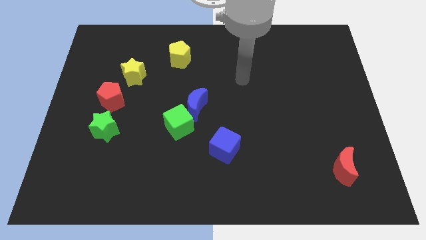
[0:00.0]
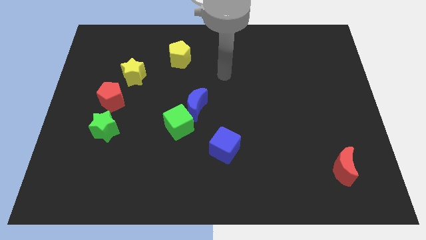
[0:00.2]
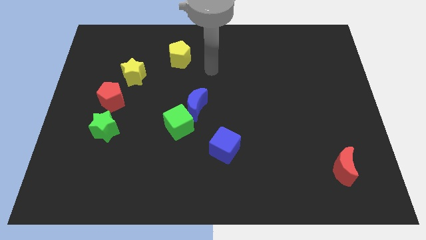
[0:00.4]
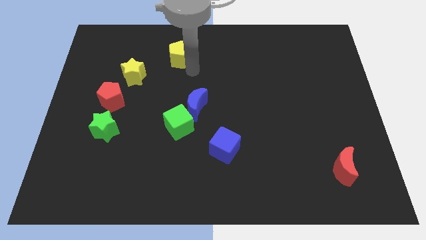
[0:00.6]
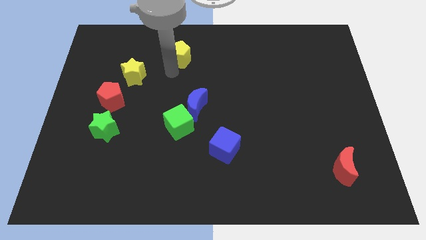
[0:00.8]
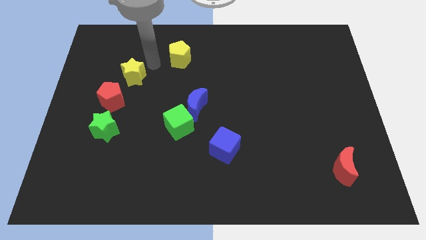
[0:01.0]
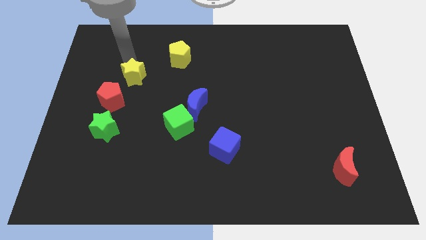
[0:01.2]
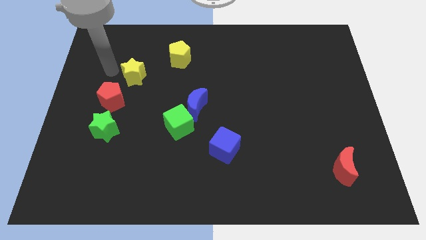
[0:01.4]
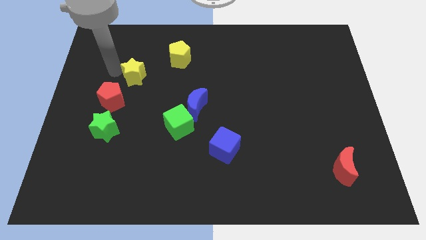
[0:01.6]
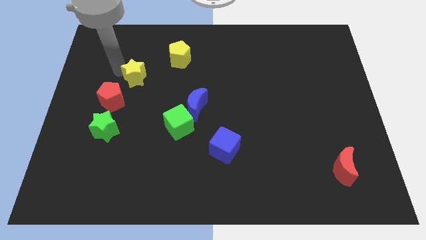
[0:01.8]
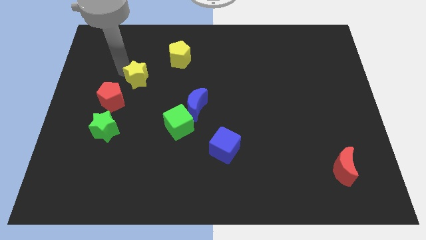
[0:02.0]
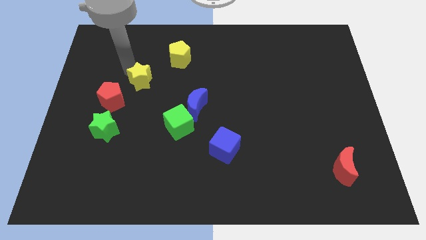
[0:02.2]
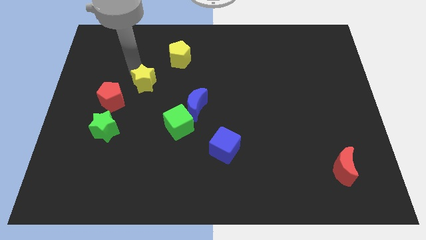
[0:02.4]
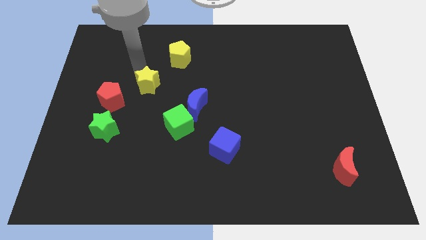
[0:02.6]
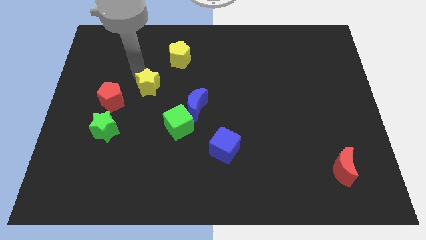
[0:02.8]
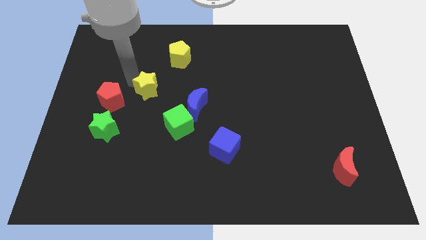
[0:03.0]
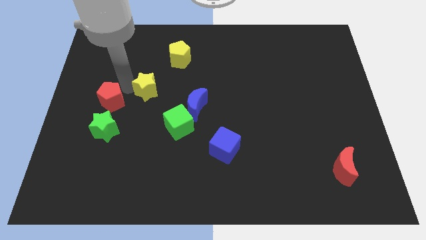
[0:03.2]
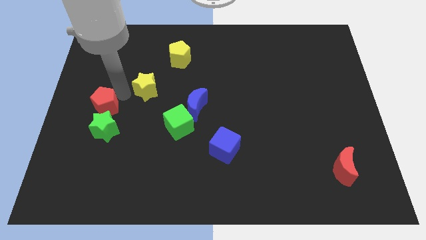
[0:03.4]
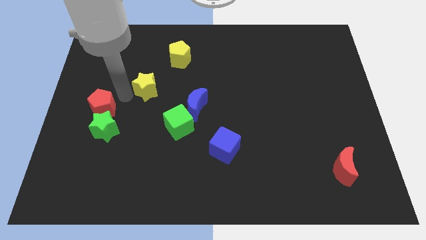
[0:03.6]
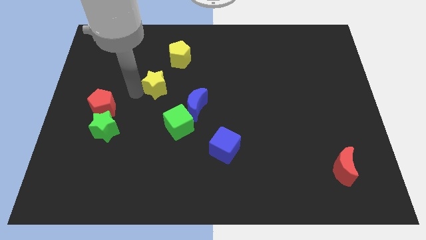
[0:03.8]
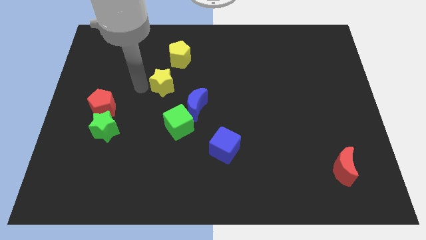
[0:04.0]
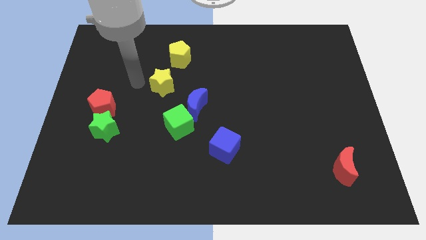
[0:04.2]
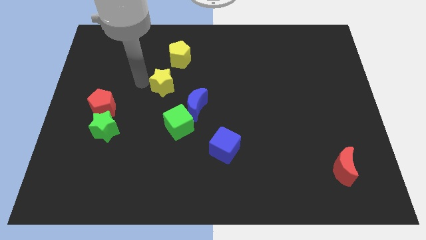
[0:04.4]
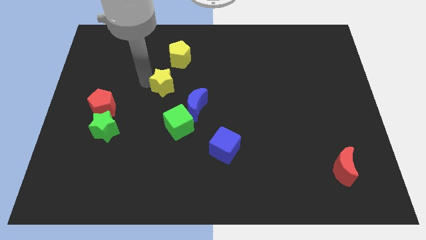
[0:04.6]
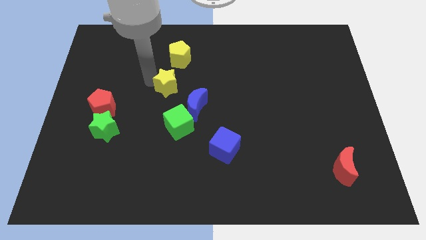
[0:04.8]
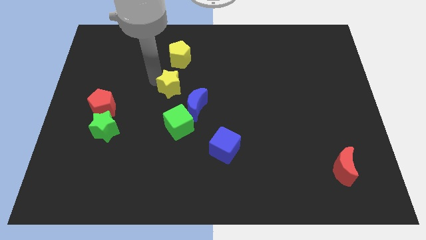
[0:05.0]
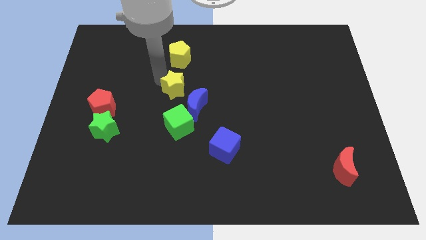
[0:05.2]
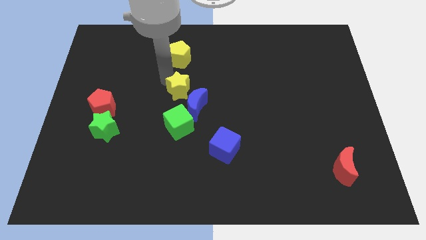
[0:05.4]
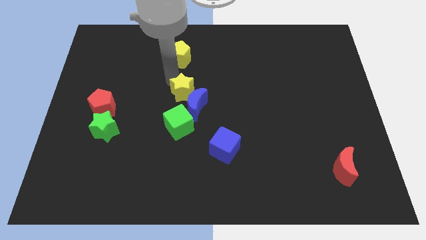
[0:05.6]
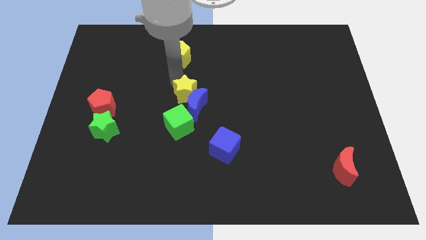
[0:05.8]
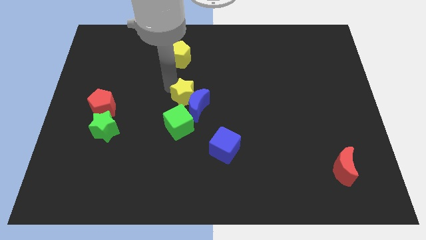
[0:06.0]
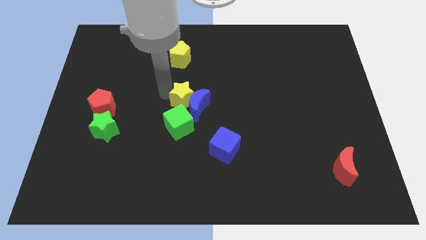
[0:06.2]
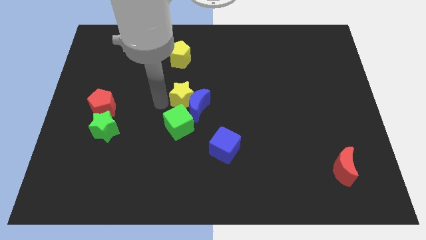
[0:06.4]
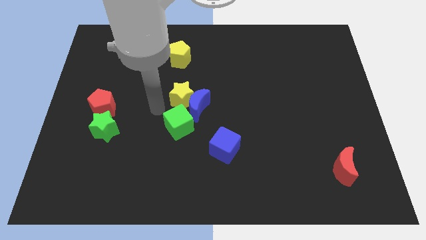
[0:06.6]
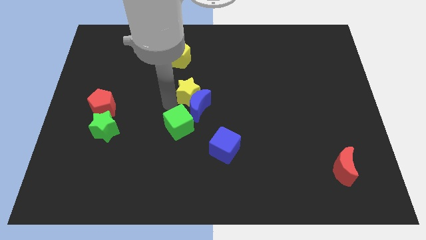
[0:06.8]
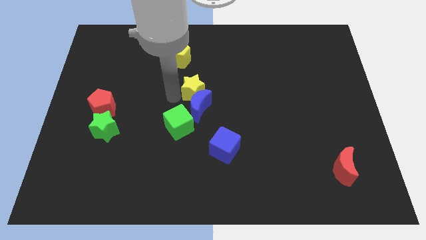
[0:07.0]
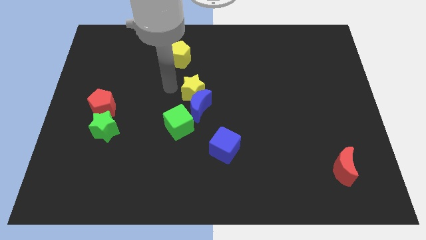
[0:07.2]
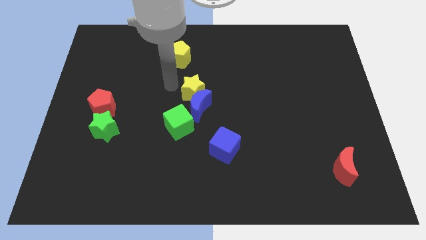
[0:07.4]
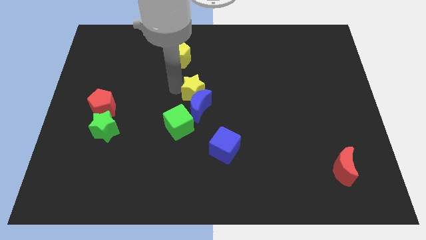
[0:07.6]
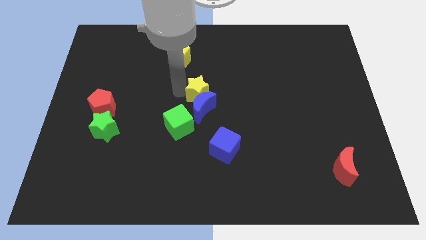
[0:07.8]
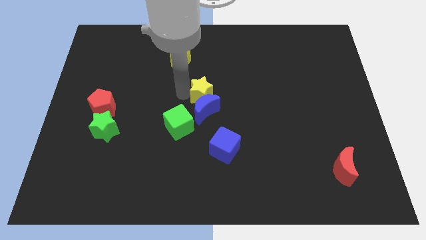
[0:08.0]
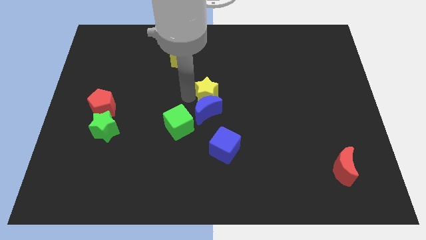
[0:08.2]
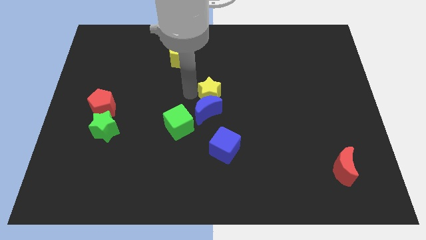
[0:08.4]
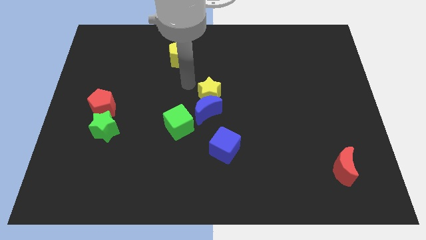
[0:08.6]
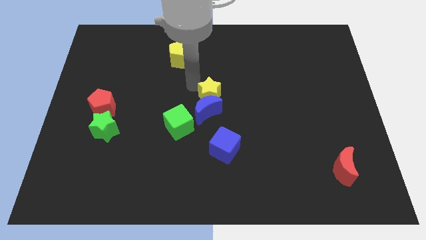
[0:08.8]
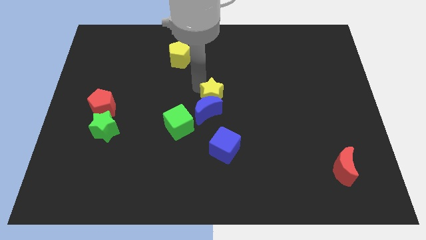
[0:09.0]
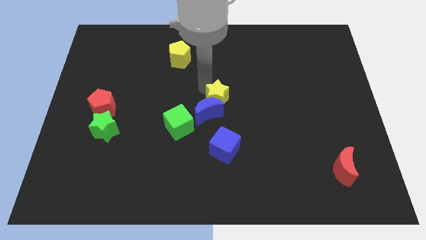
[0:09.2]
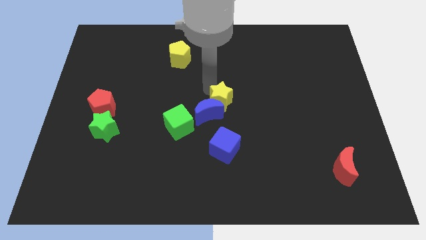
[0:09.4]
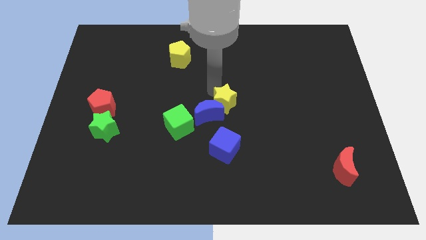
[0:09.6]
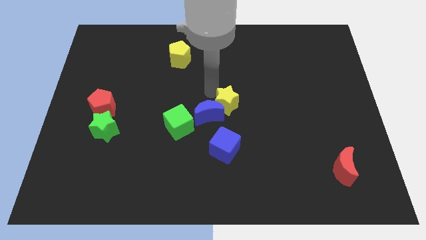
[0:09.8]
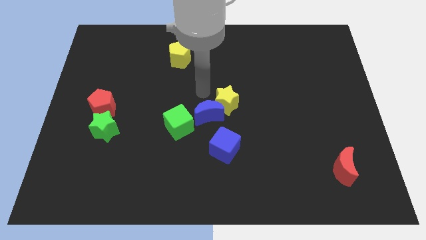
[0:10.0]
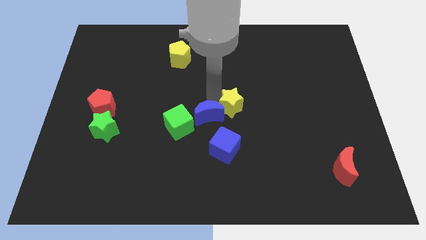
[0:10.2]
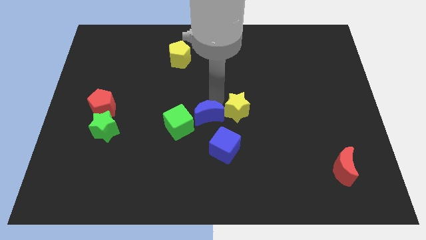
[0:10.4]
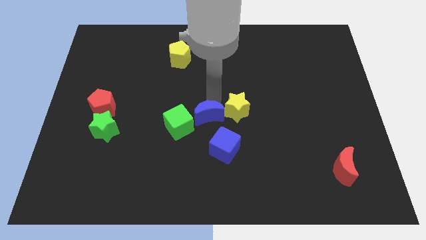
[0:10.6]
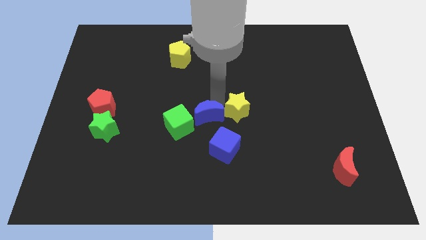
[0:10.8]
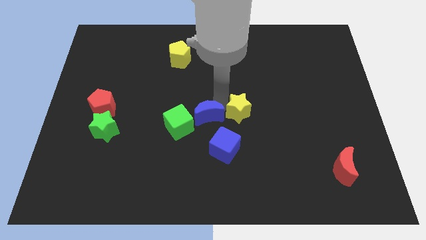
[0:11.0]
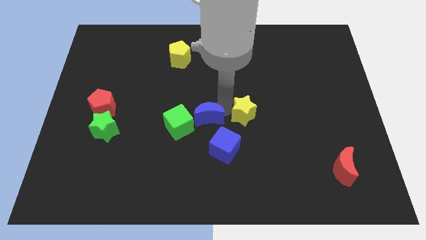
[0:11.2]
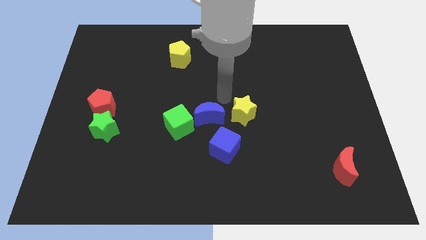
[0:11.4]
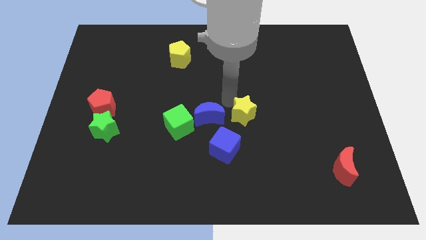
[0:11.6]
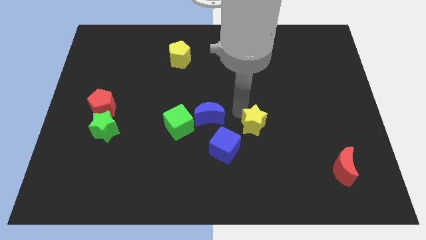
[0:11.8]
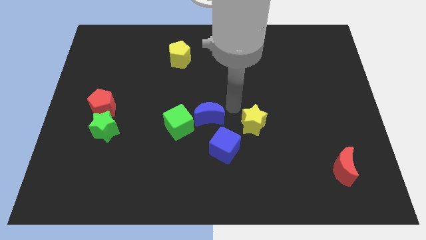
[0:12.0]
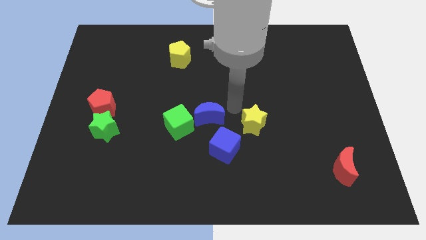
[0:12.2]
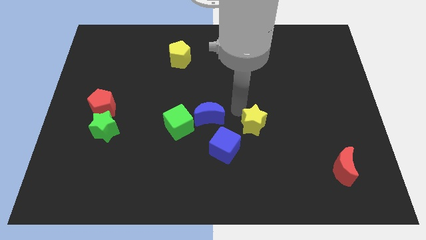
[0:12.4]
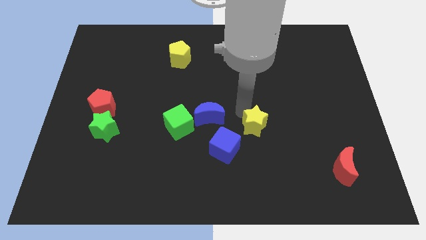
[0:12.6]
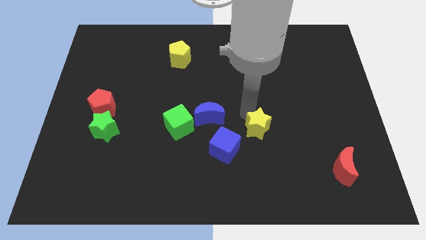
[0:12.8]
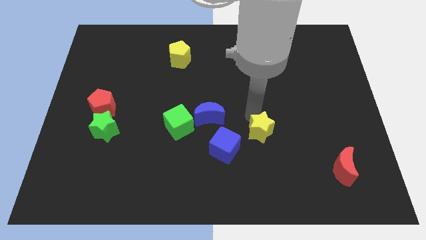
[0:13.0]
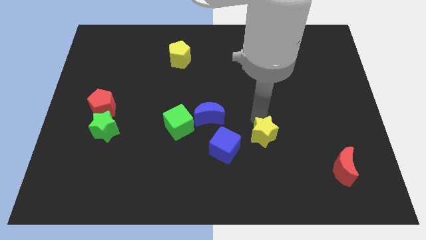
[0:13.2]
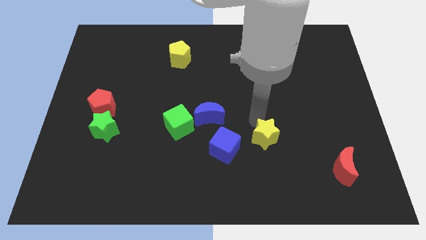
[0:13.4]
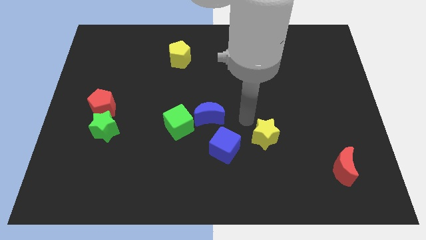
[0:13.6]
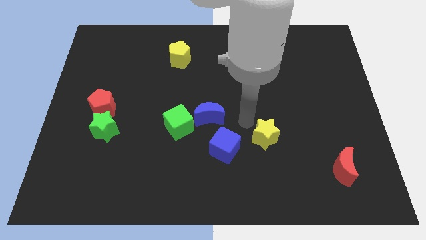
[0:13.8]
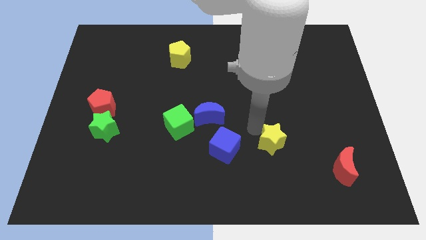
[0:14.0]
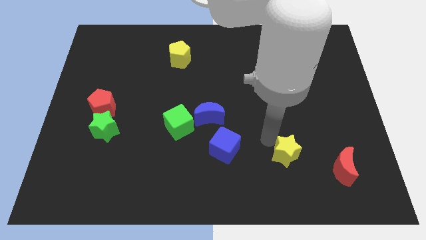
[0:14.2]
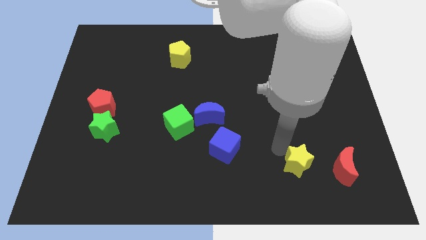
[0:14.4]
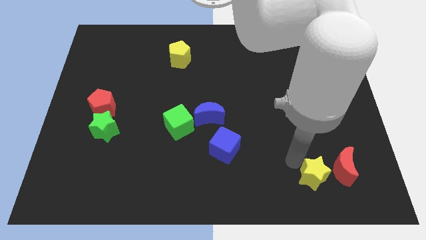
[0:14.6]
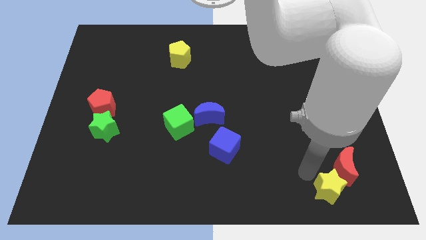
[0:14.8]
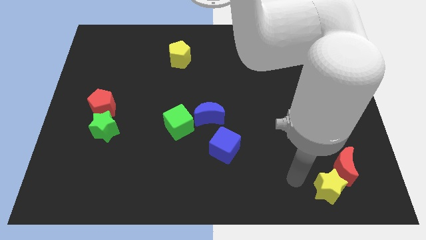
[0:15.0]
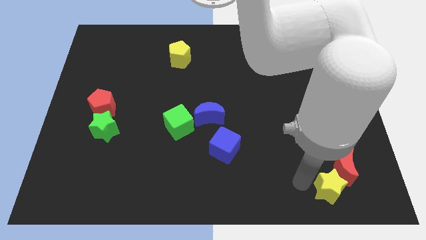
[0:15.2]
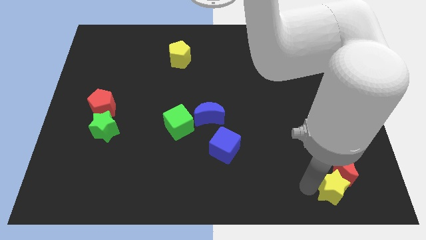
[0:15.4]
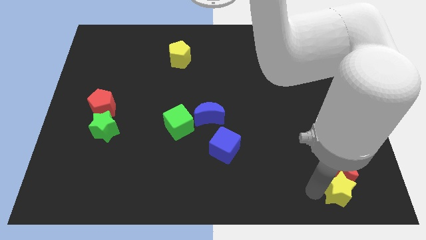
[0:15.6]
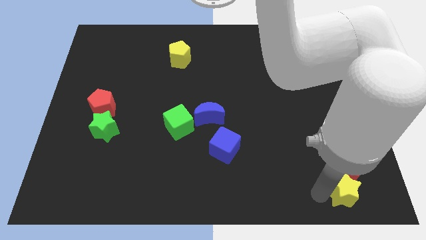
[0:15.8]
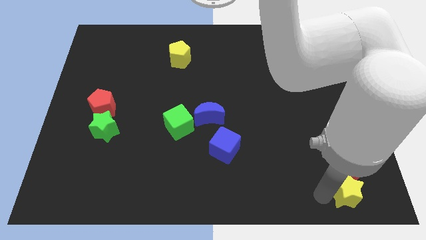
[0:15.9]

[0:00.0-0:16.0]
push the yellow star to the bottom right
